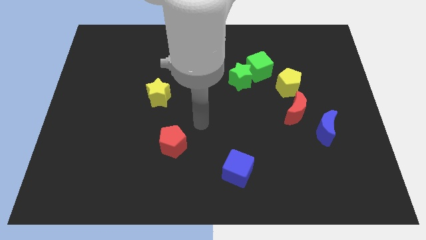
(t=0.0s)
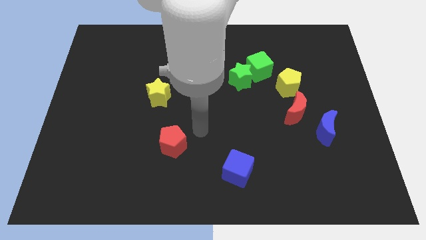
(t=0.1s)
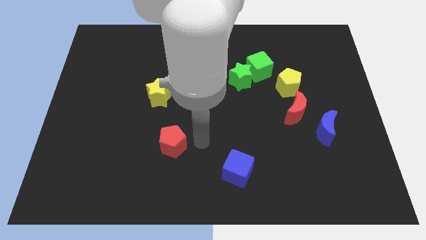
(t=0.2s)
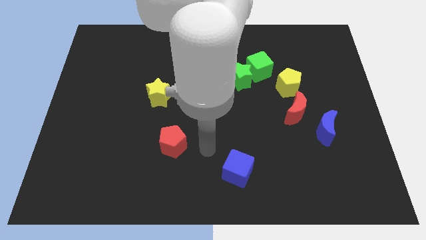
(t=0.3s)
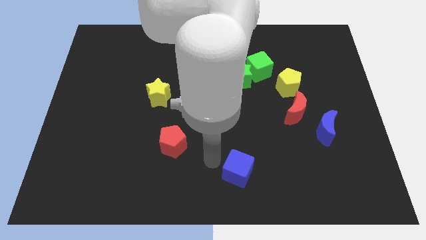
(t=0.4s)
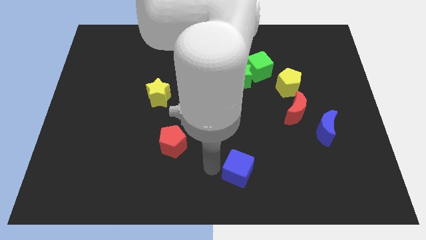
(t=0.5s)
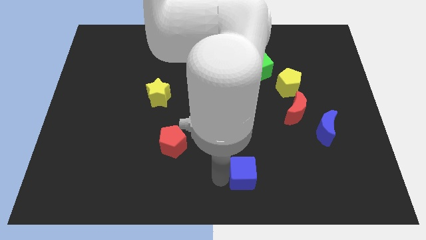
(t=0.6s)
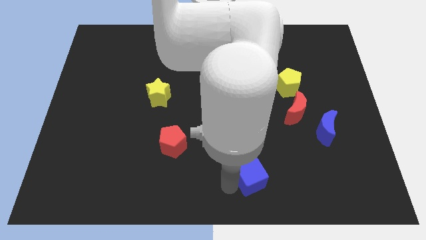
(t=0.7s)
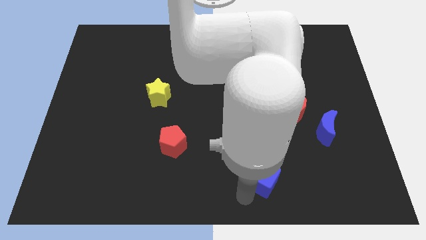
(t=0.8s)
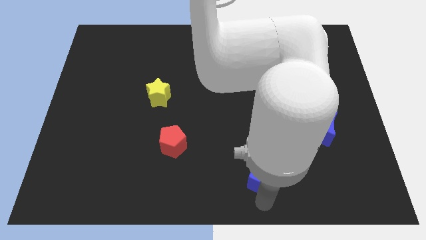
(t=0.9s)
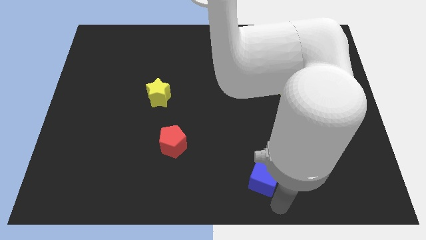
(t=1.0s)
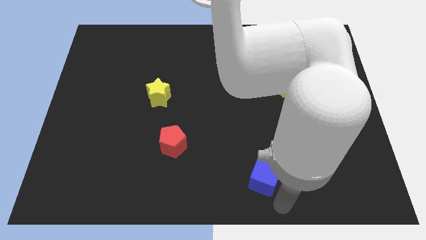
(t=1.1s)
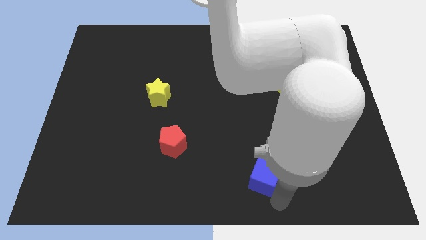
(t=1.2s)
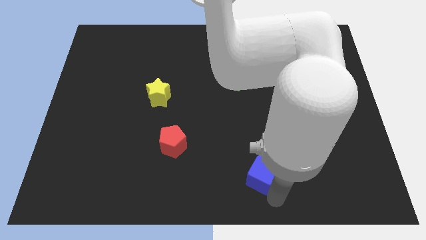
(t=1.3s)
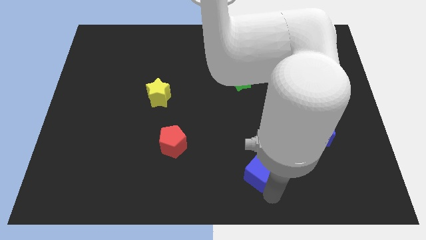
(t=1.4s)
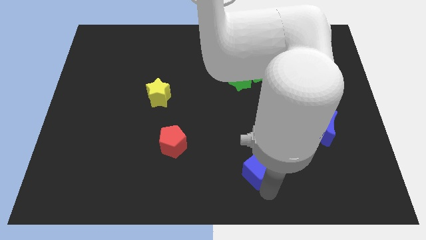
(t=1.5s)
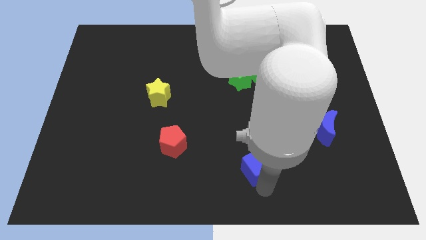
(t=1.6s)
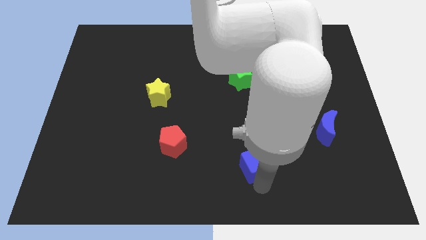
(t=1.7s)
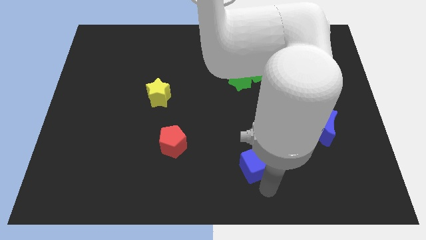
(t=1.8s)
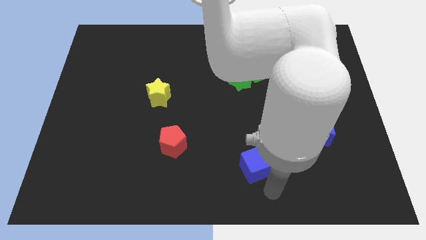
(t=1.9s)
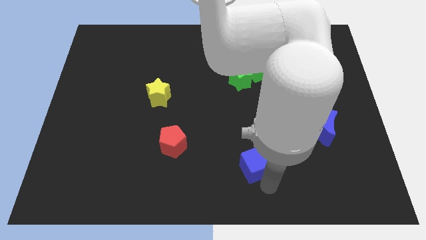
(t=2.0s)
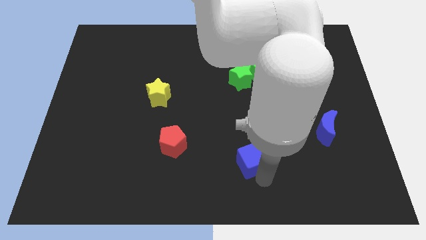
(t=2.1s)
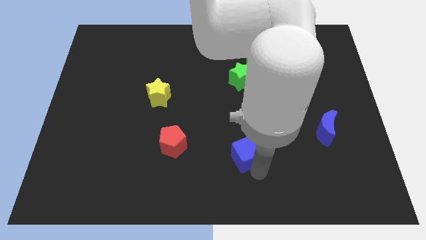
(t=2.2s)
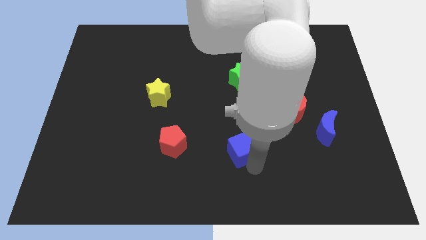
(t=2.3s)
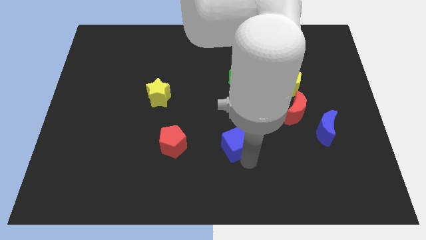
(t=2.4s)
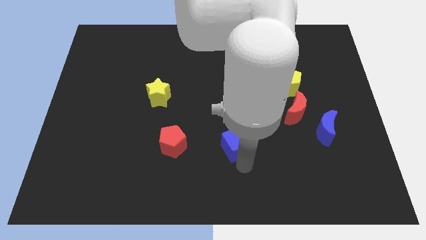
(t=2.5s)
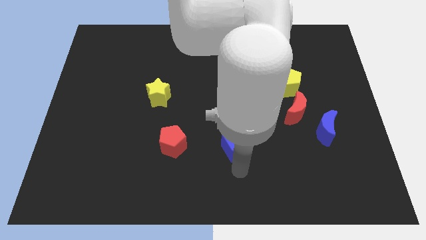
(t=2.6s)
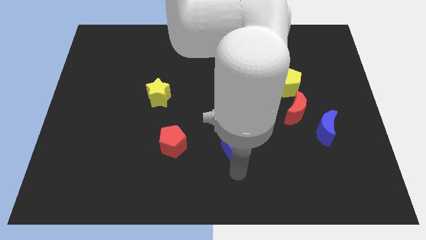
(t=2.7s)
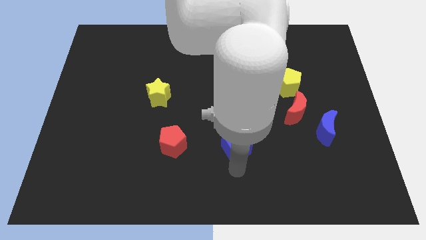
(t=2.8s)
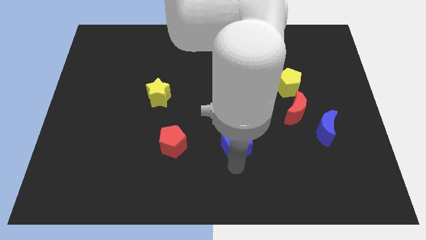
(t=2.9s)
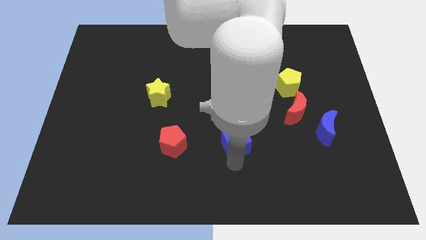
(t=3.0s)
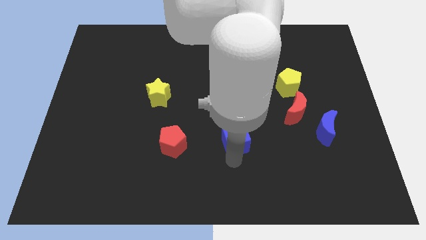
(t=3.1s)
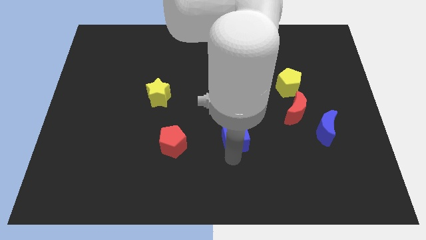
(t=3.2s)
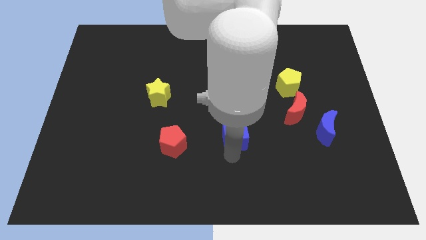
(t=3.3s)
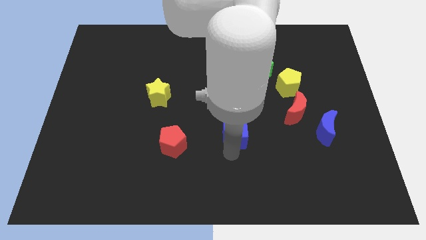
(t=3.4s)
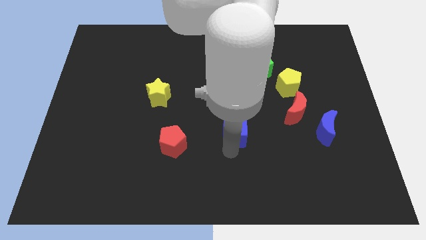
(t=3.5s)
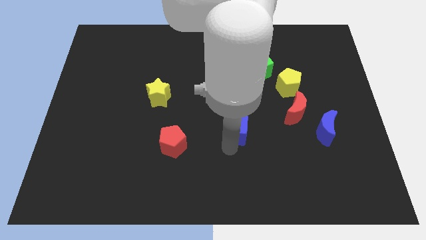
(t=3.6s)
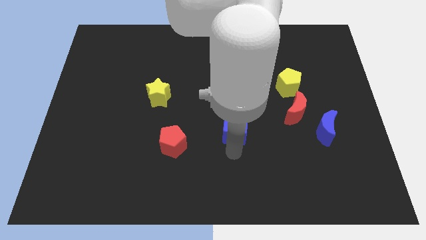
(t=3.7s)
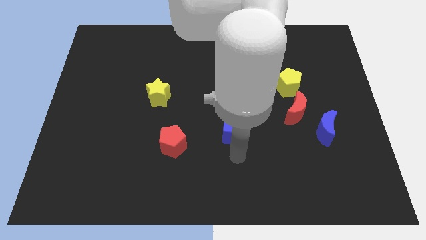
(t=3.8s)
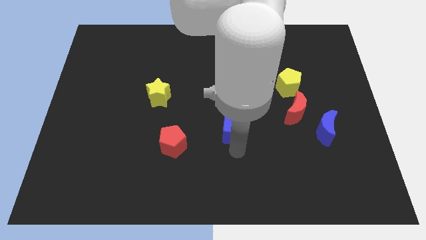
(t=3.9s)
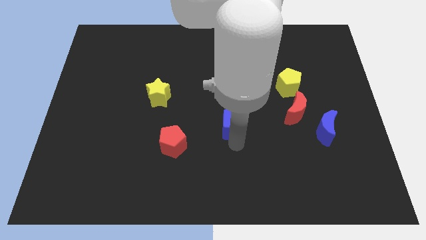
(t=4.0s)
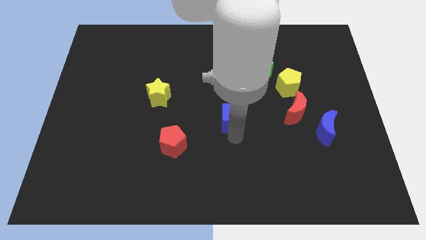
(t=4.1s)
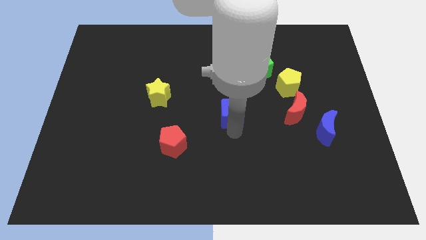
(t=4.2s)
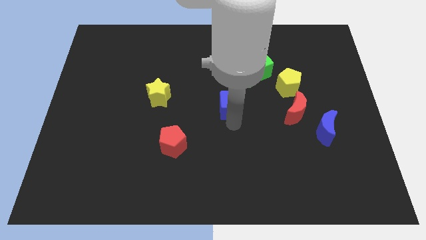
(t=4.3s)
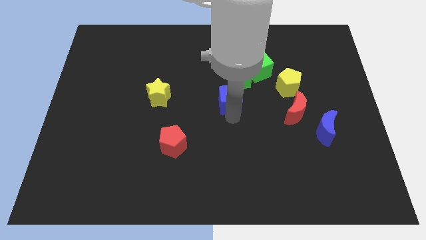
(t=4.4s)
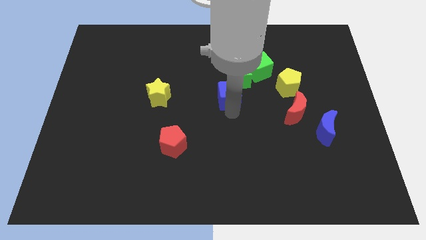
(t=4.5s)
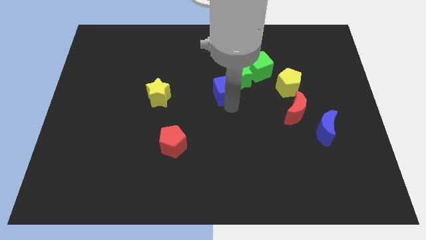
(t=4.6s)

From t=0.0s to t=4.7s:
push the blue cube upwards

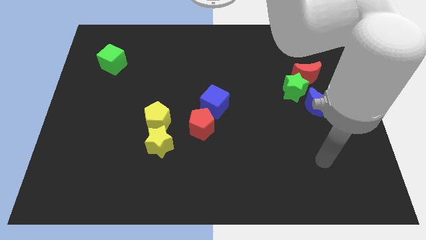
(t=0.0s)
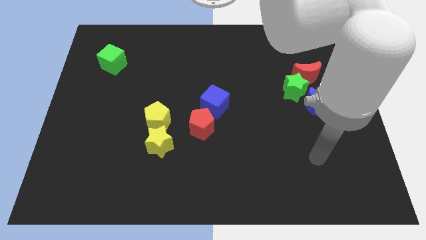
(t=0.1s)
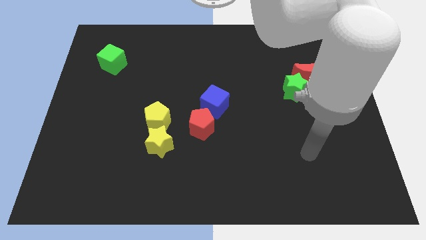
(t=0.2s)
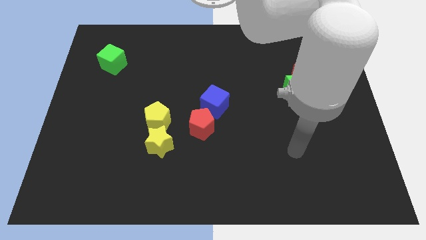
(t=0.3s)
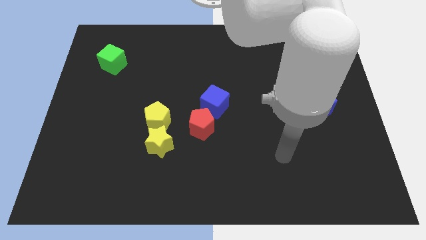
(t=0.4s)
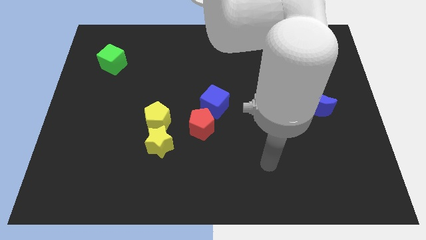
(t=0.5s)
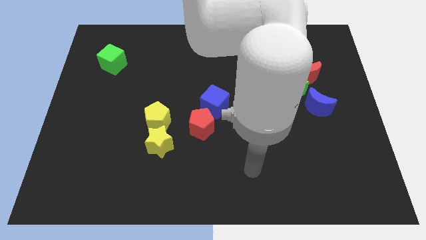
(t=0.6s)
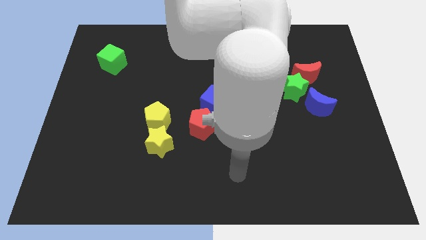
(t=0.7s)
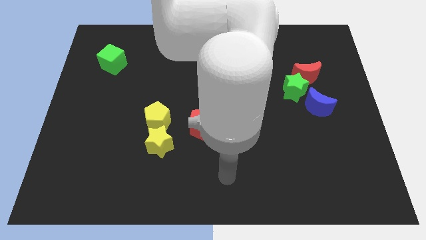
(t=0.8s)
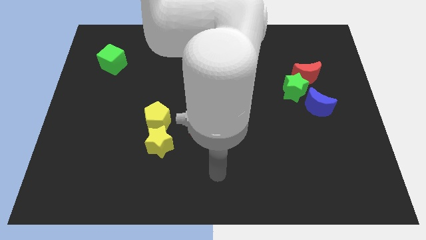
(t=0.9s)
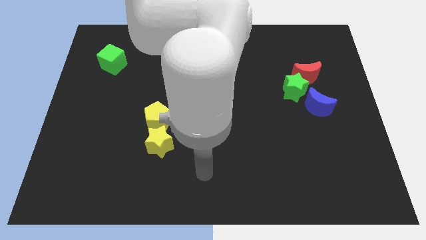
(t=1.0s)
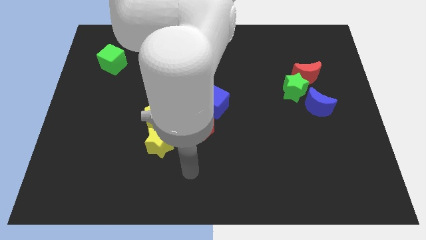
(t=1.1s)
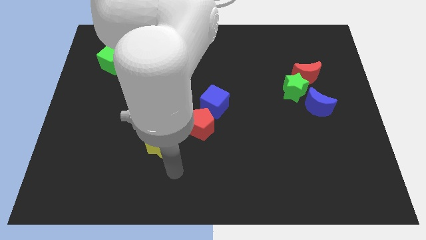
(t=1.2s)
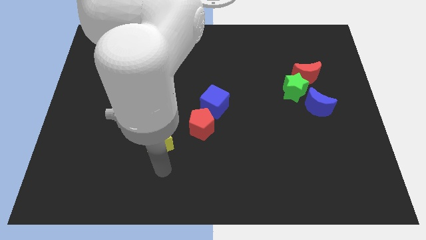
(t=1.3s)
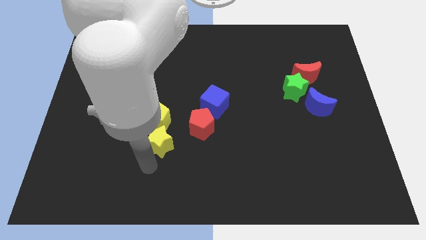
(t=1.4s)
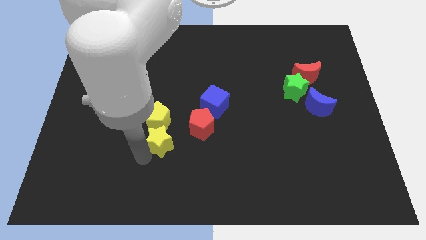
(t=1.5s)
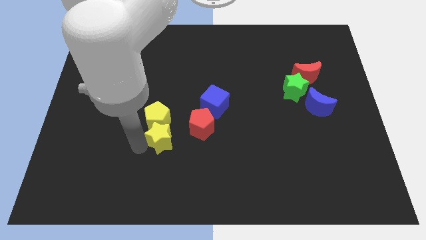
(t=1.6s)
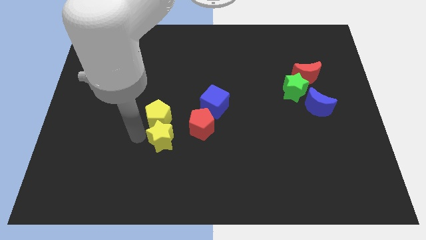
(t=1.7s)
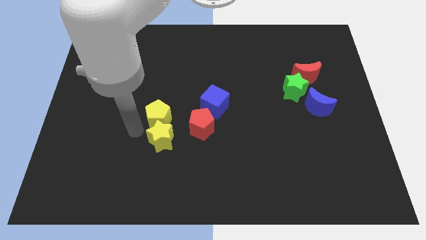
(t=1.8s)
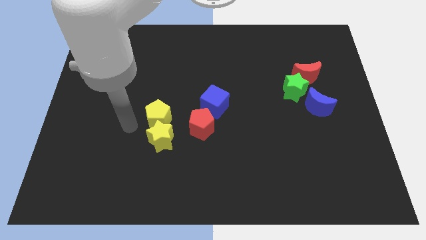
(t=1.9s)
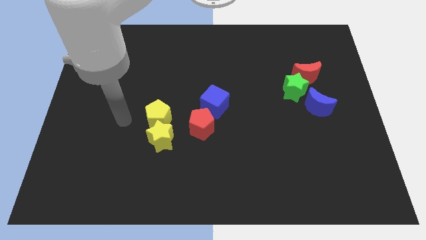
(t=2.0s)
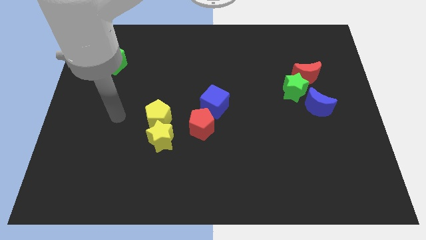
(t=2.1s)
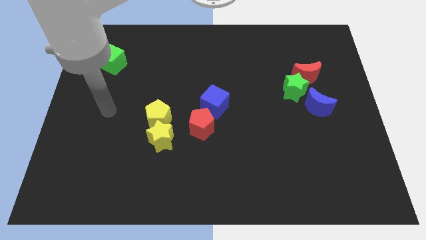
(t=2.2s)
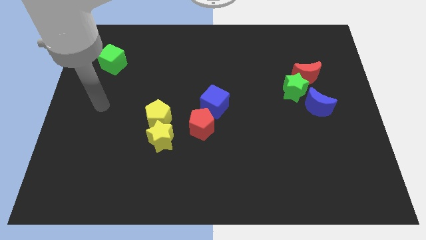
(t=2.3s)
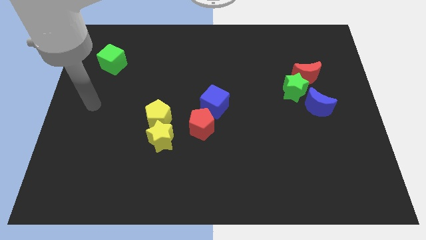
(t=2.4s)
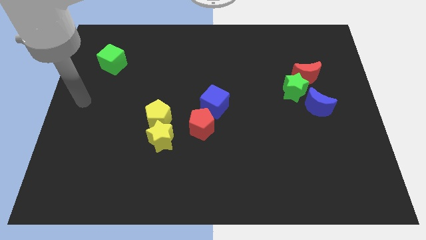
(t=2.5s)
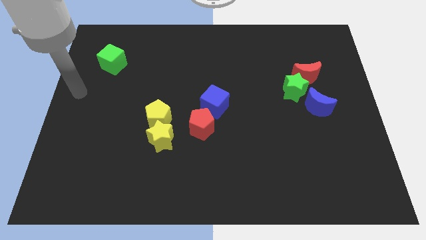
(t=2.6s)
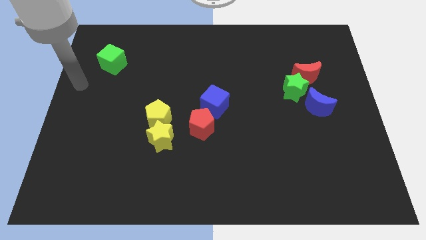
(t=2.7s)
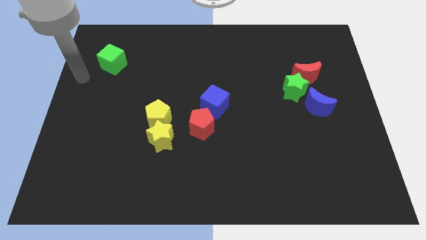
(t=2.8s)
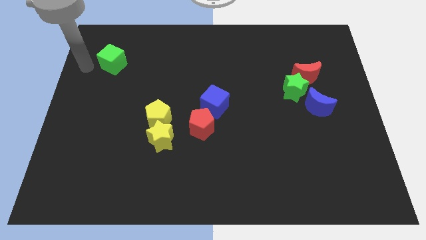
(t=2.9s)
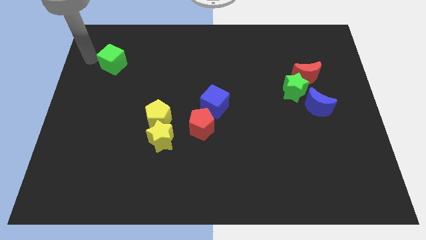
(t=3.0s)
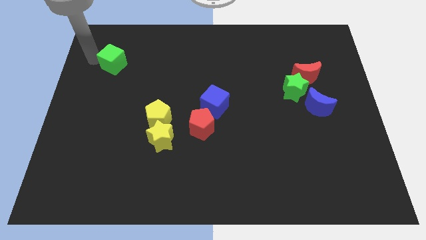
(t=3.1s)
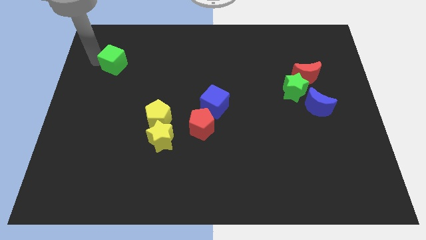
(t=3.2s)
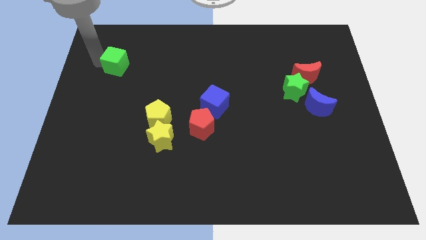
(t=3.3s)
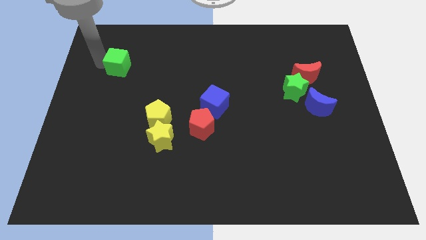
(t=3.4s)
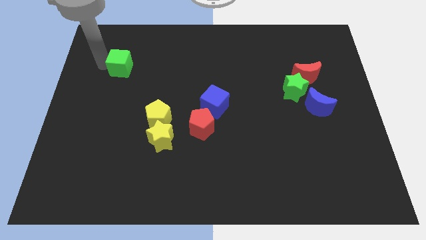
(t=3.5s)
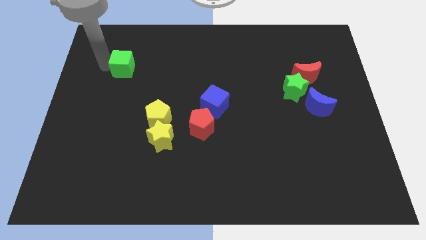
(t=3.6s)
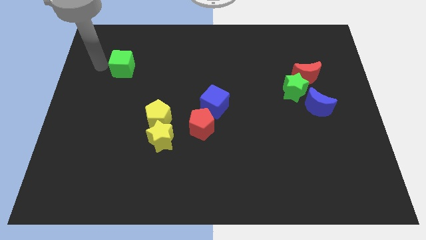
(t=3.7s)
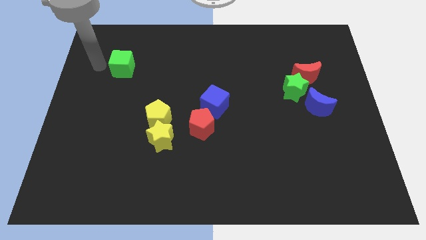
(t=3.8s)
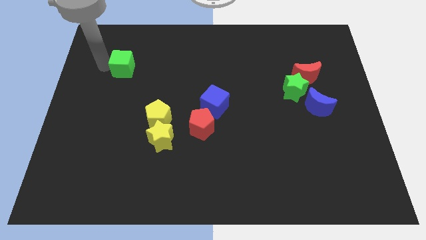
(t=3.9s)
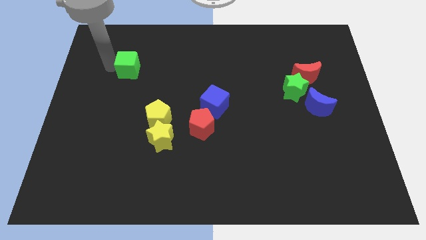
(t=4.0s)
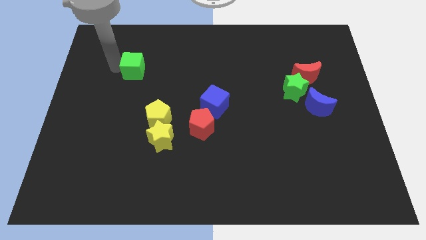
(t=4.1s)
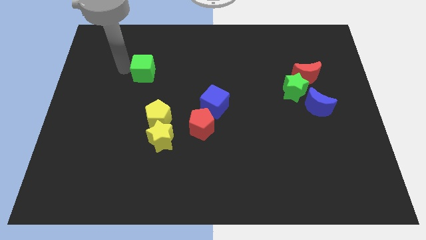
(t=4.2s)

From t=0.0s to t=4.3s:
slide the green cube a little to the right
